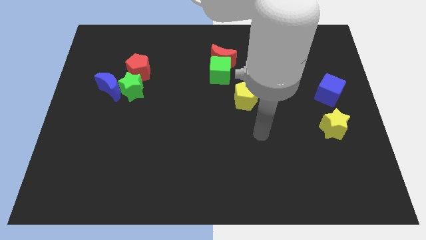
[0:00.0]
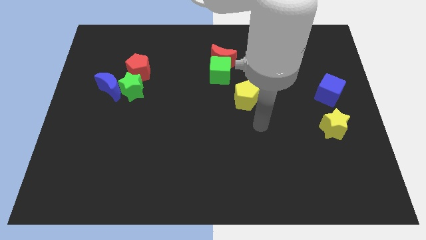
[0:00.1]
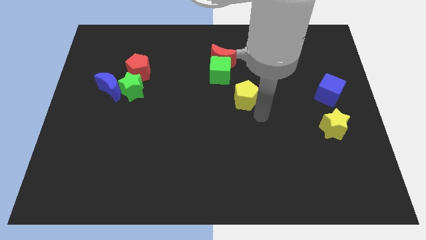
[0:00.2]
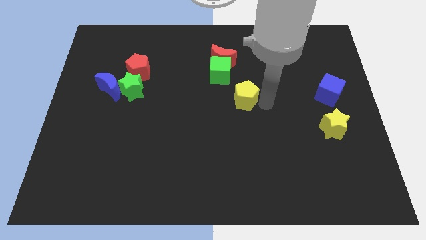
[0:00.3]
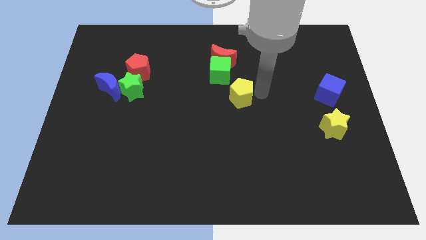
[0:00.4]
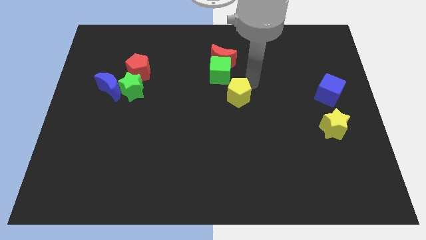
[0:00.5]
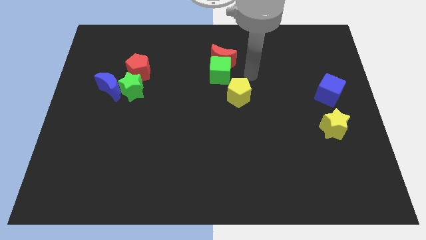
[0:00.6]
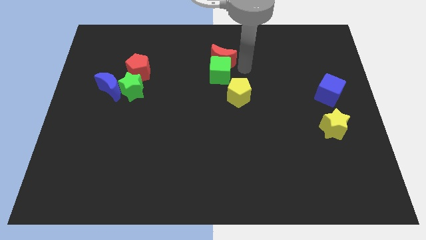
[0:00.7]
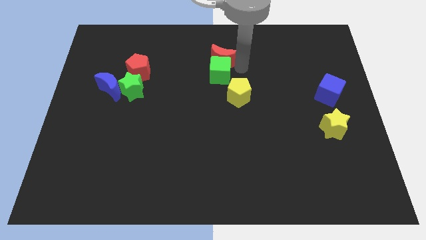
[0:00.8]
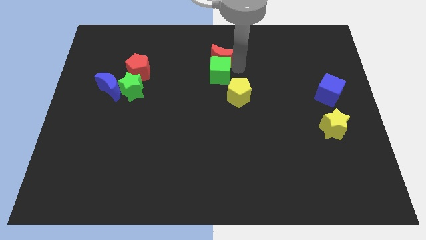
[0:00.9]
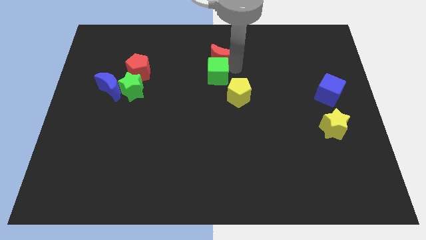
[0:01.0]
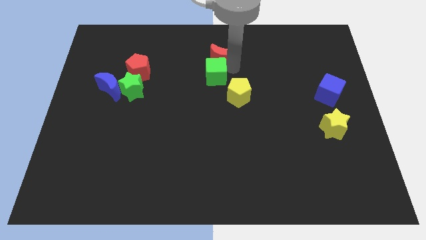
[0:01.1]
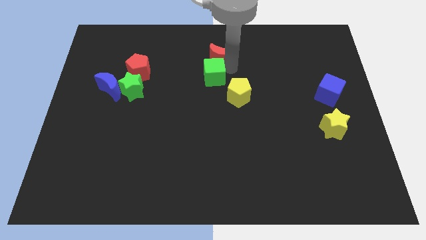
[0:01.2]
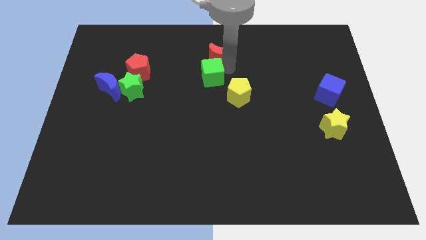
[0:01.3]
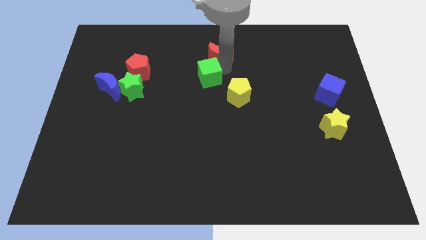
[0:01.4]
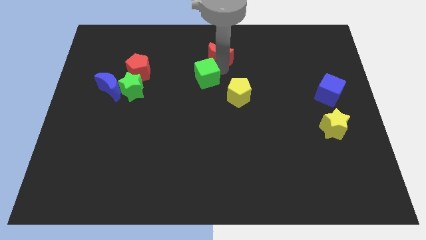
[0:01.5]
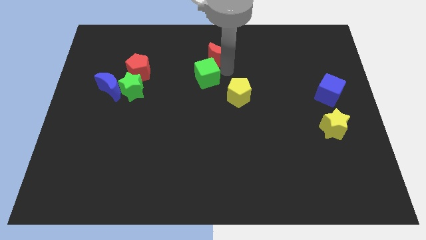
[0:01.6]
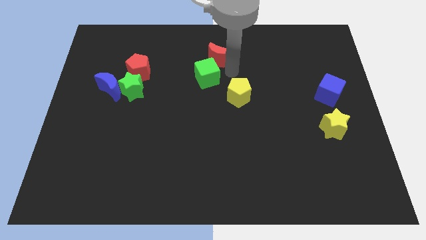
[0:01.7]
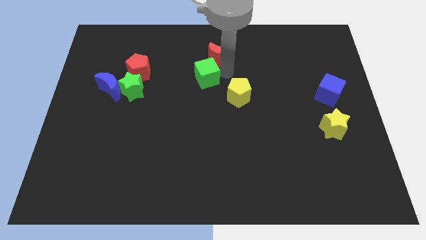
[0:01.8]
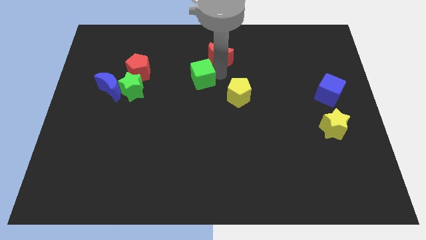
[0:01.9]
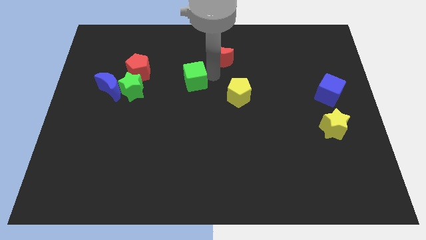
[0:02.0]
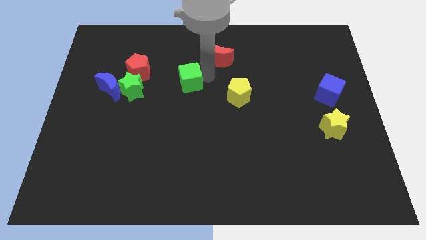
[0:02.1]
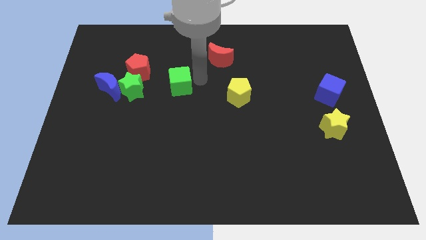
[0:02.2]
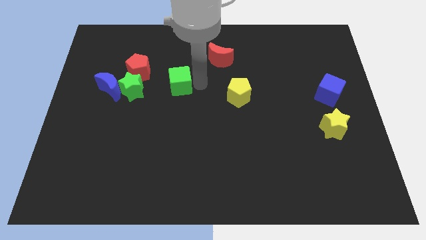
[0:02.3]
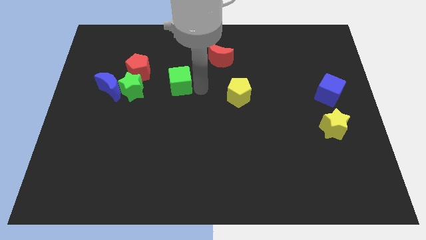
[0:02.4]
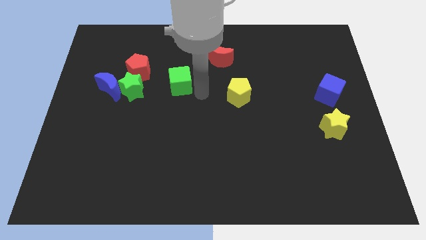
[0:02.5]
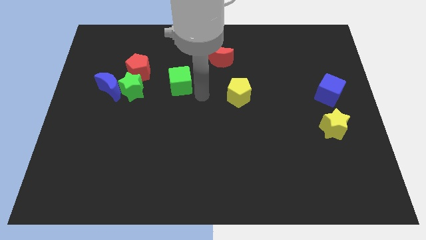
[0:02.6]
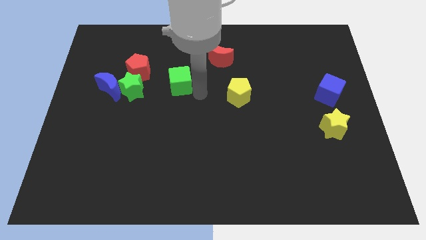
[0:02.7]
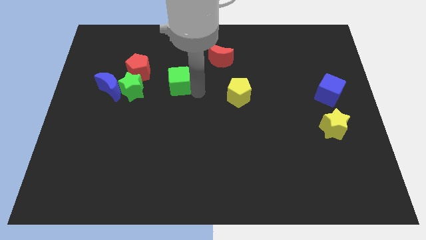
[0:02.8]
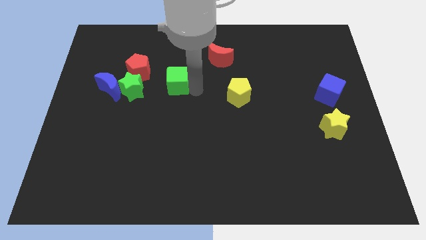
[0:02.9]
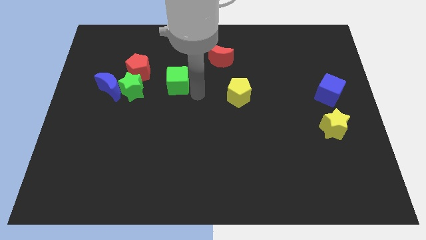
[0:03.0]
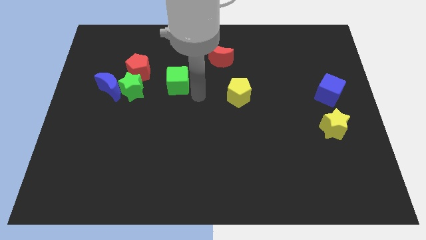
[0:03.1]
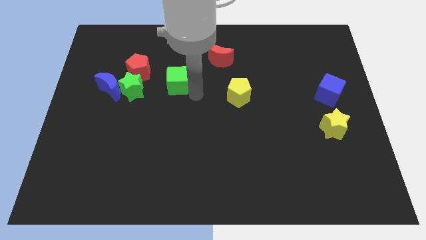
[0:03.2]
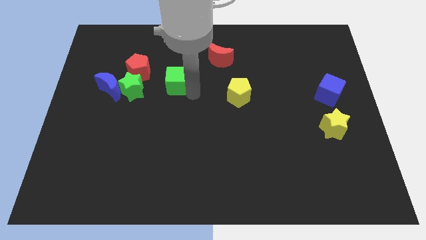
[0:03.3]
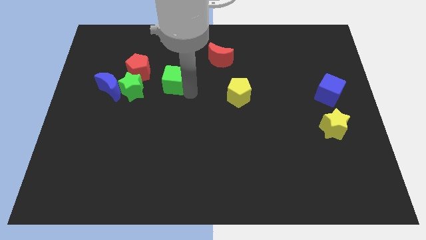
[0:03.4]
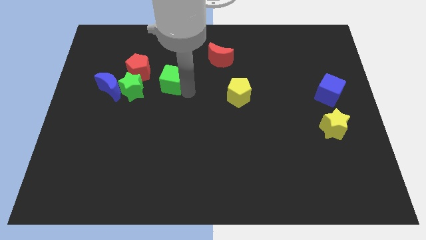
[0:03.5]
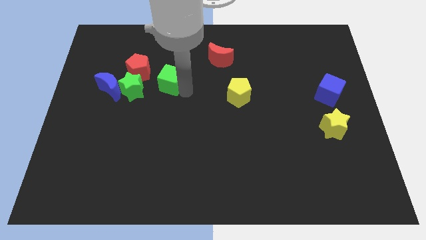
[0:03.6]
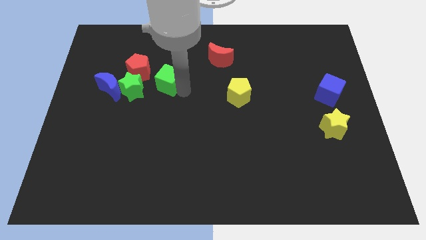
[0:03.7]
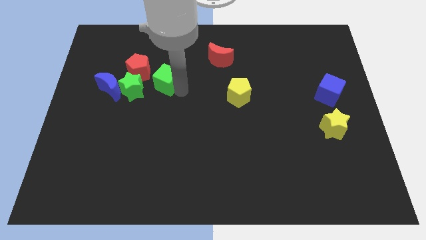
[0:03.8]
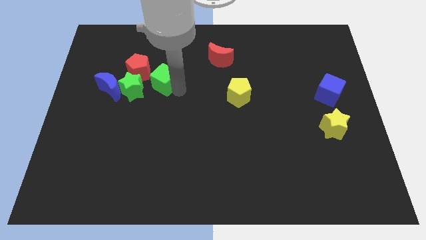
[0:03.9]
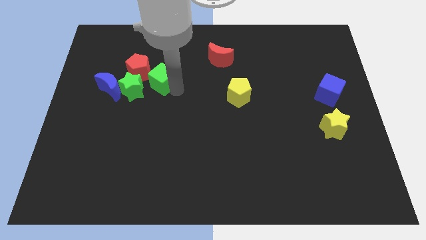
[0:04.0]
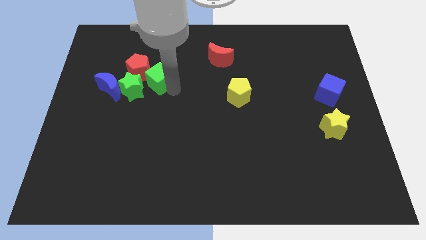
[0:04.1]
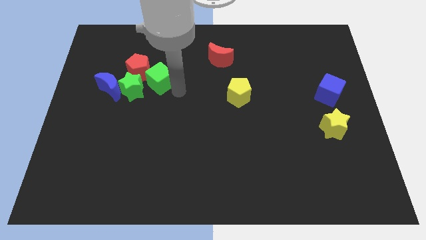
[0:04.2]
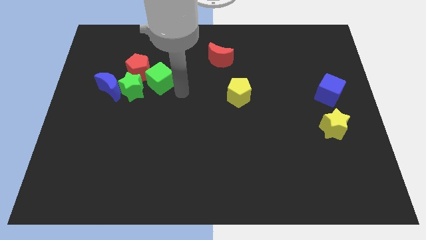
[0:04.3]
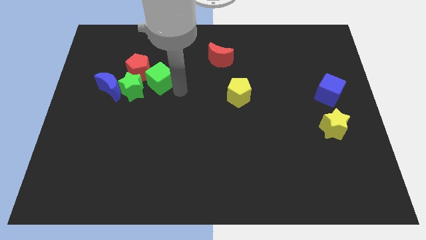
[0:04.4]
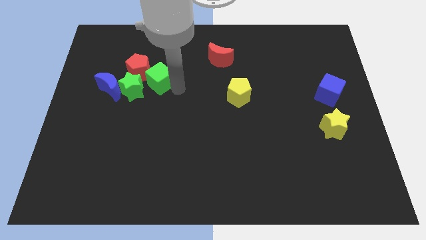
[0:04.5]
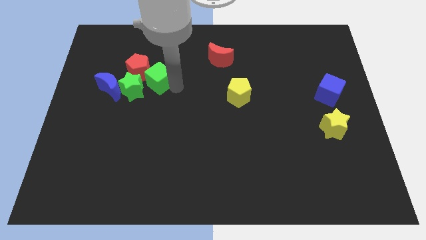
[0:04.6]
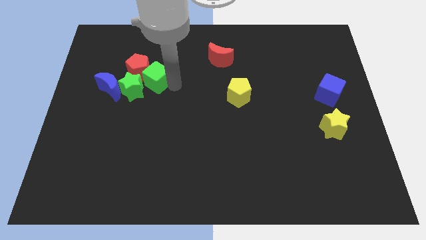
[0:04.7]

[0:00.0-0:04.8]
put the green cube towards the red pentagon

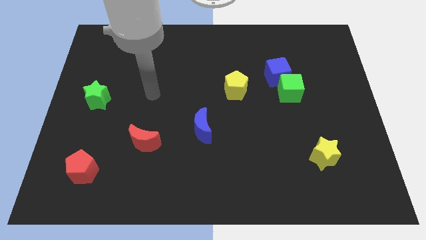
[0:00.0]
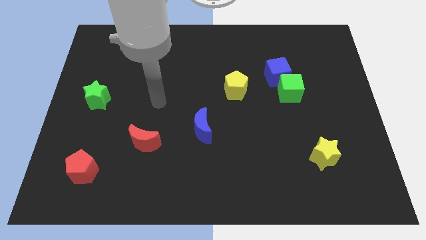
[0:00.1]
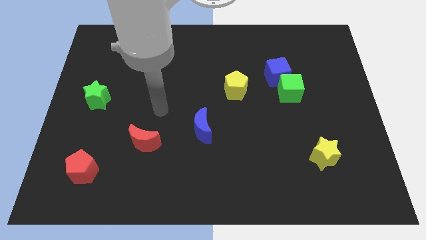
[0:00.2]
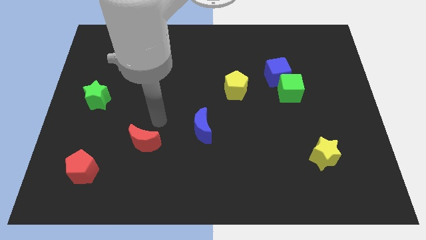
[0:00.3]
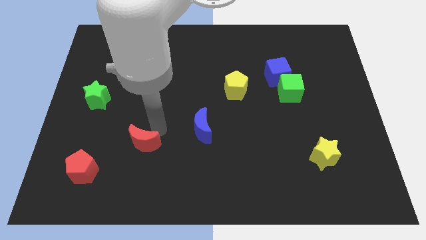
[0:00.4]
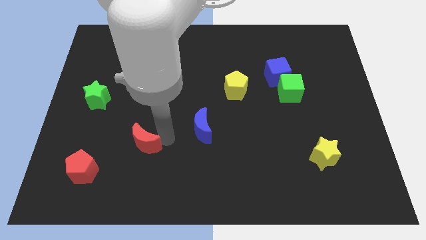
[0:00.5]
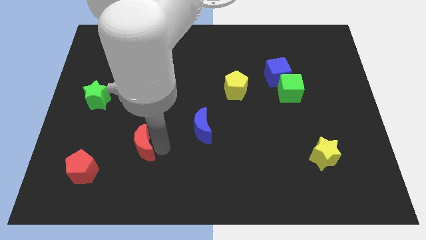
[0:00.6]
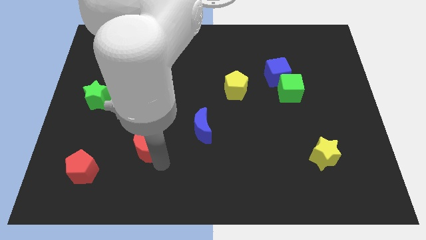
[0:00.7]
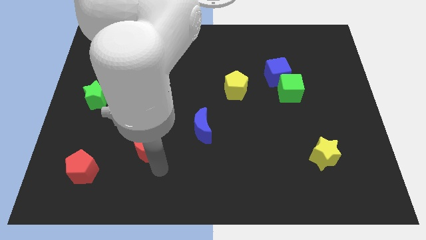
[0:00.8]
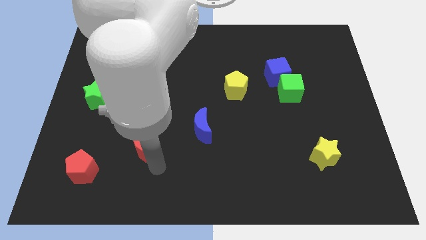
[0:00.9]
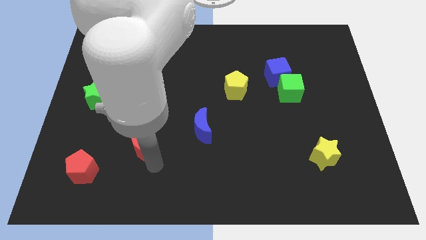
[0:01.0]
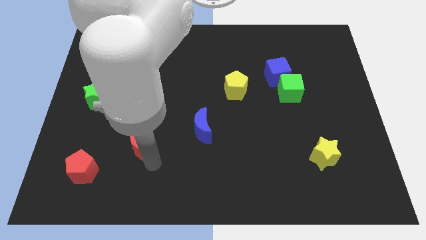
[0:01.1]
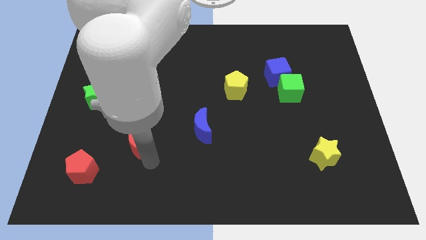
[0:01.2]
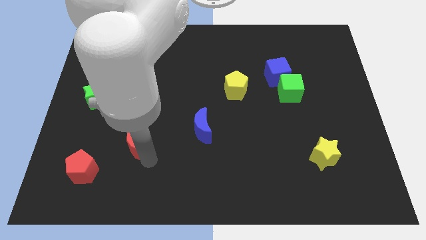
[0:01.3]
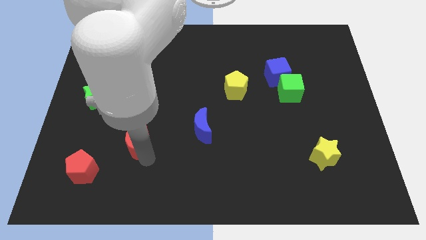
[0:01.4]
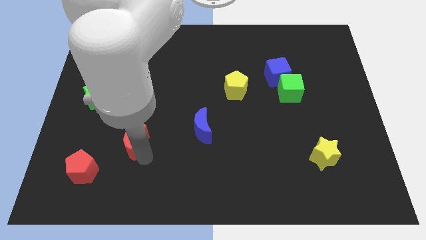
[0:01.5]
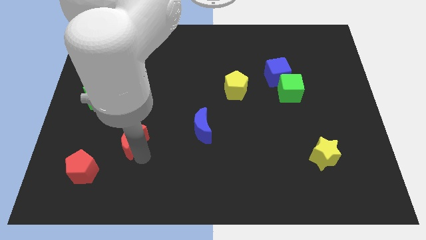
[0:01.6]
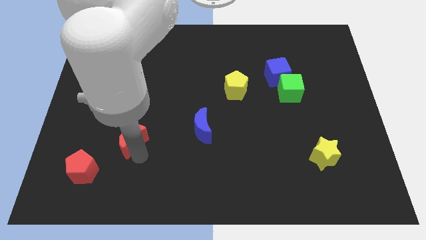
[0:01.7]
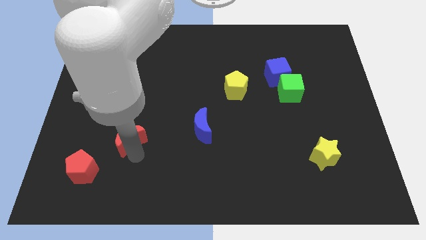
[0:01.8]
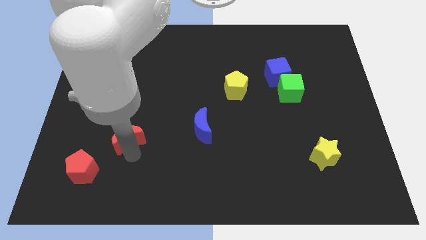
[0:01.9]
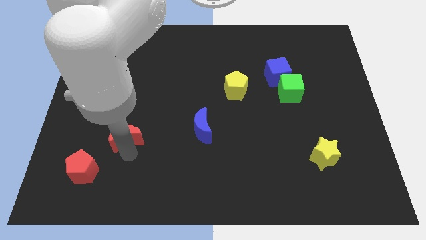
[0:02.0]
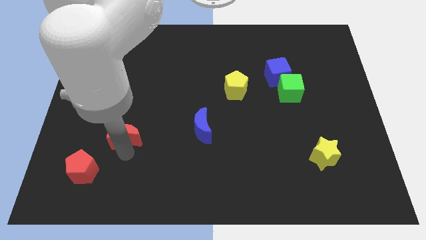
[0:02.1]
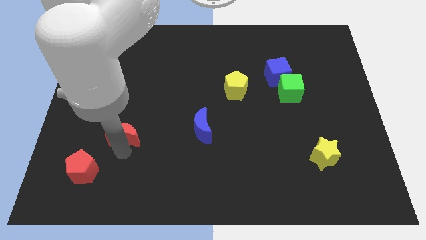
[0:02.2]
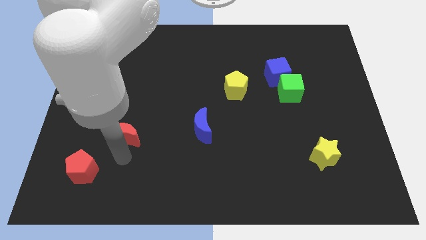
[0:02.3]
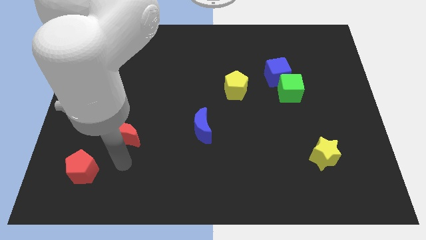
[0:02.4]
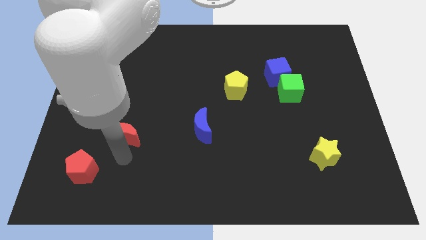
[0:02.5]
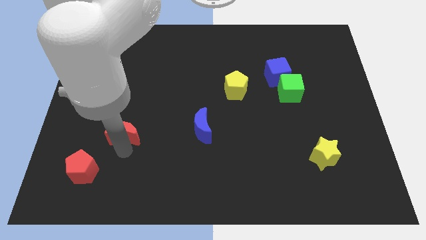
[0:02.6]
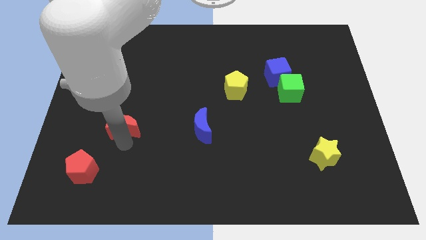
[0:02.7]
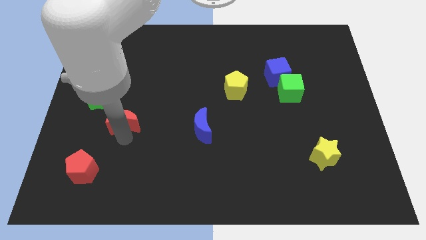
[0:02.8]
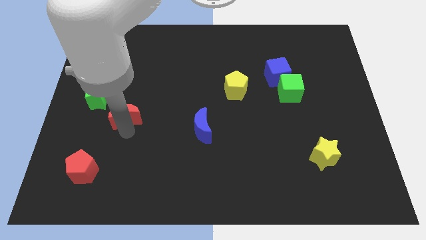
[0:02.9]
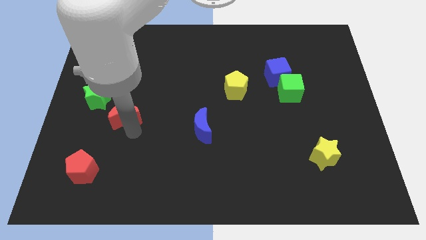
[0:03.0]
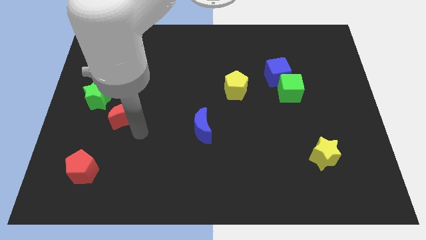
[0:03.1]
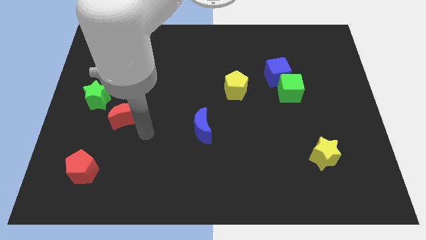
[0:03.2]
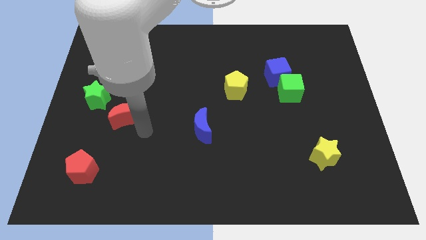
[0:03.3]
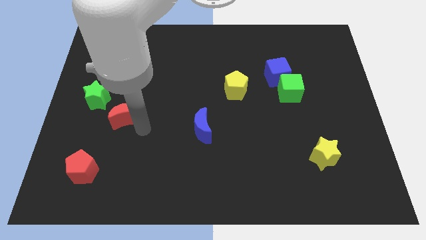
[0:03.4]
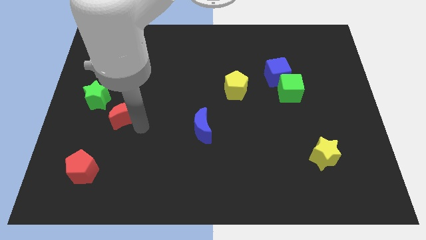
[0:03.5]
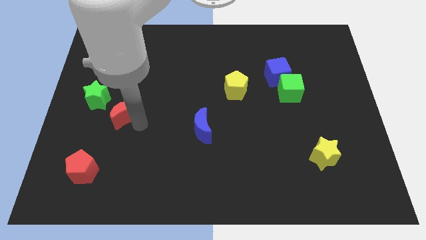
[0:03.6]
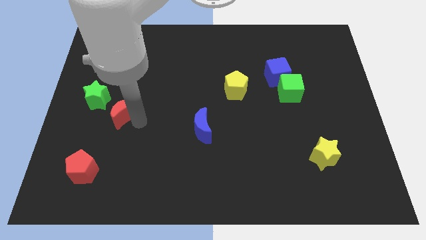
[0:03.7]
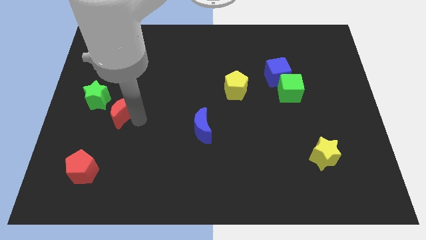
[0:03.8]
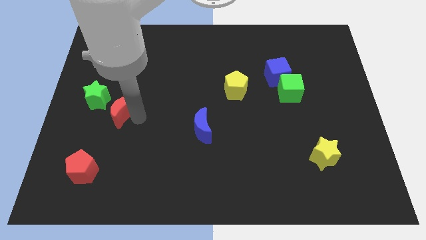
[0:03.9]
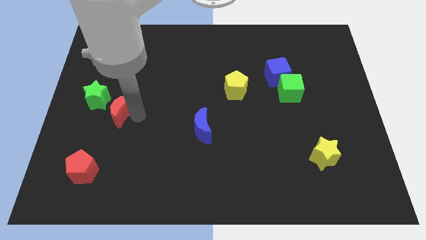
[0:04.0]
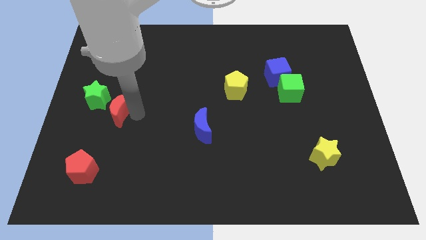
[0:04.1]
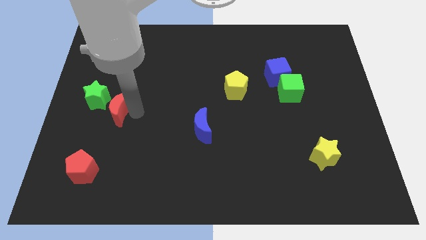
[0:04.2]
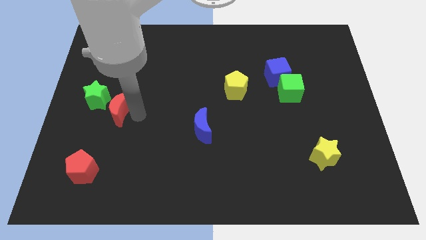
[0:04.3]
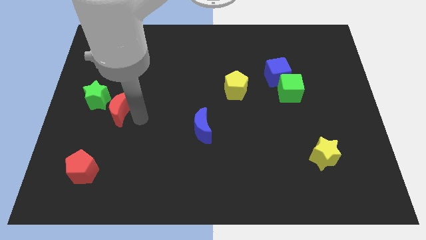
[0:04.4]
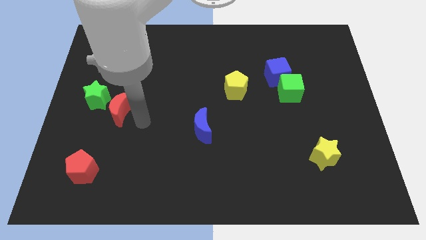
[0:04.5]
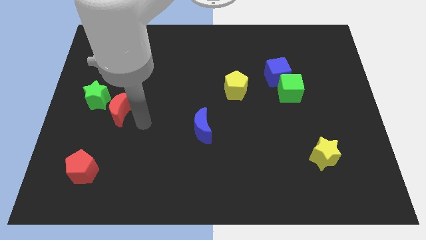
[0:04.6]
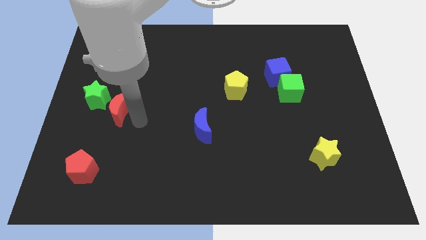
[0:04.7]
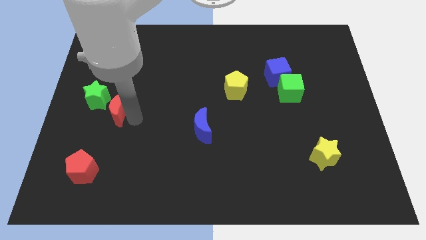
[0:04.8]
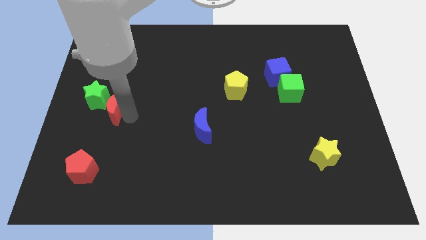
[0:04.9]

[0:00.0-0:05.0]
put the red moon to the green star
